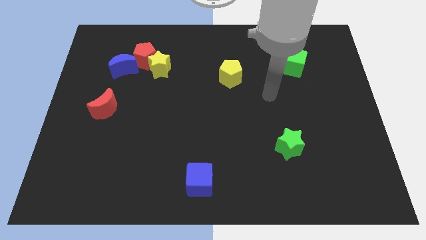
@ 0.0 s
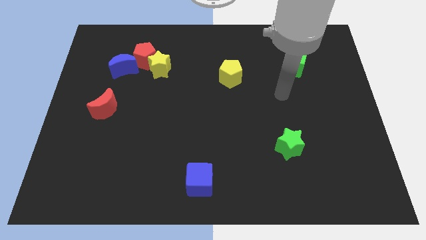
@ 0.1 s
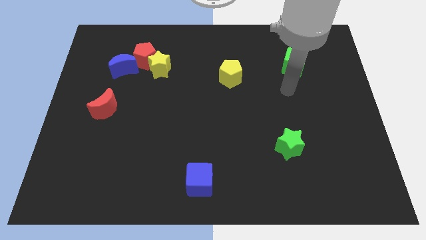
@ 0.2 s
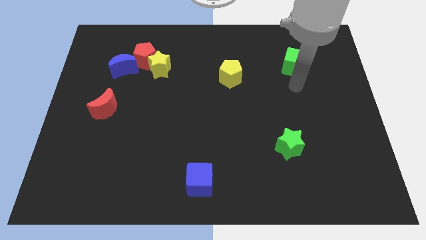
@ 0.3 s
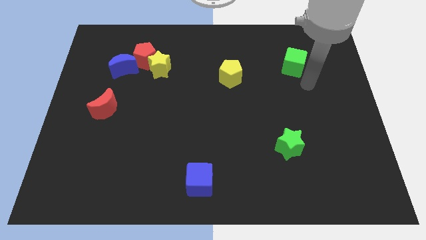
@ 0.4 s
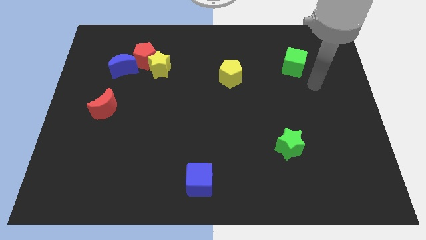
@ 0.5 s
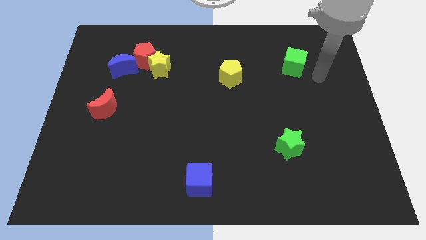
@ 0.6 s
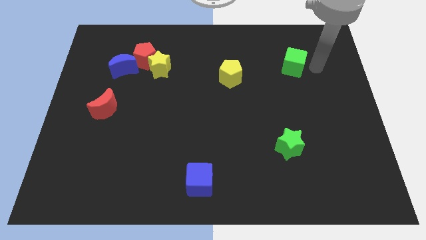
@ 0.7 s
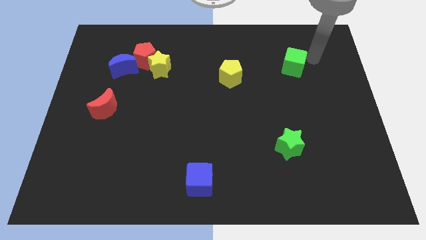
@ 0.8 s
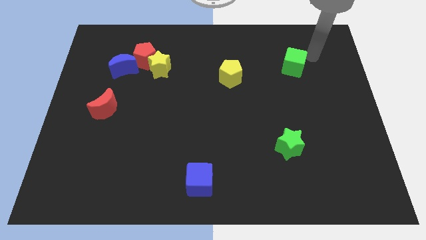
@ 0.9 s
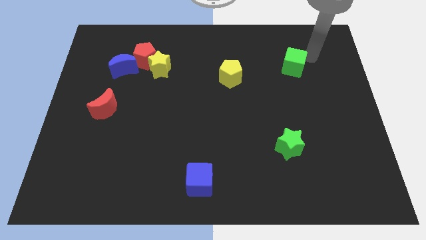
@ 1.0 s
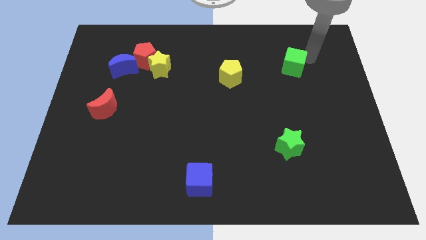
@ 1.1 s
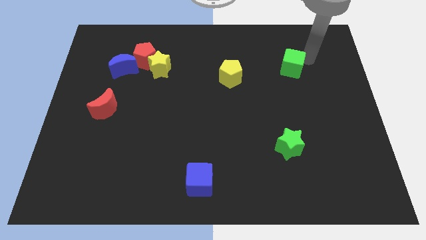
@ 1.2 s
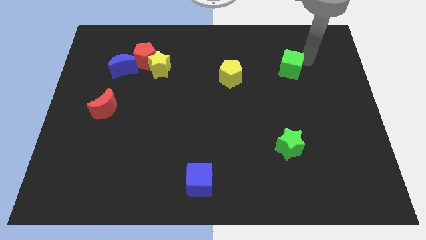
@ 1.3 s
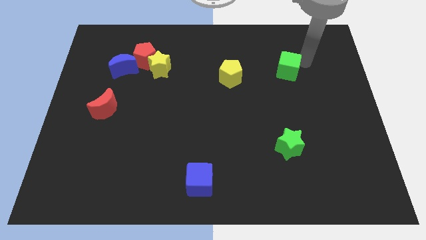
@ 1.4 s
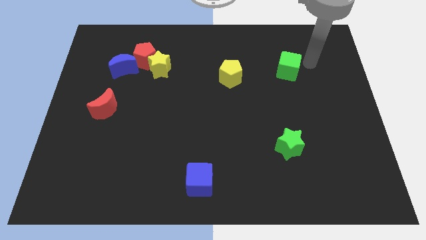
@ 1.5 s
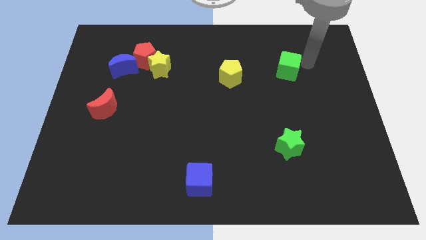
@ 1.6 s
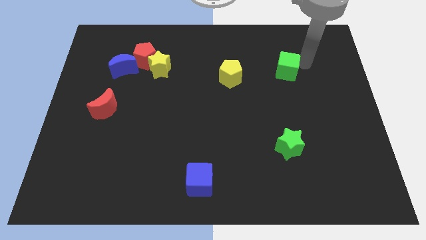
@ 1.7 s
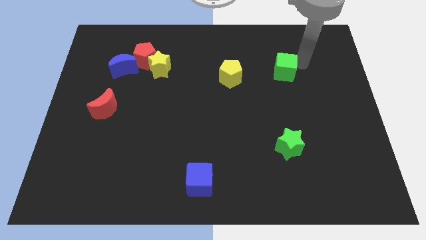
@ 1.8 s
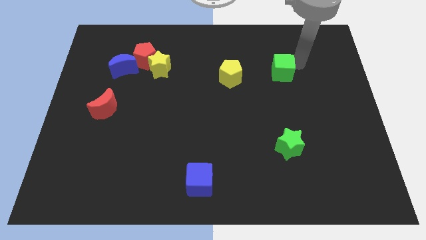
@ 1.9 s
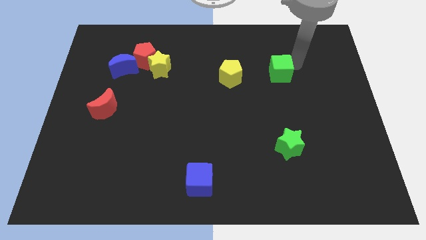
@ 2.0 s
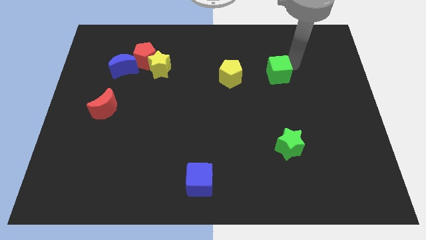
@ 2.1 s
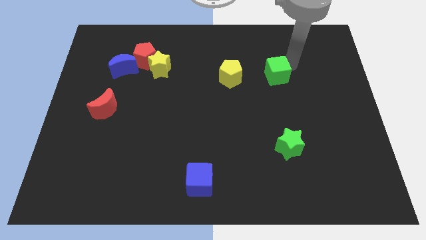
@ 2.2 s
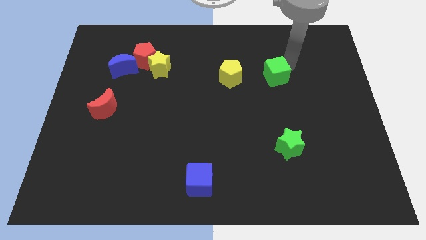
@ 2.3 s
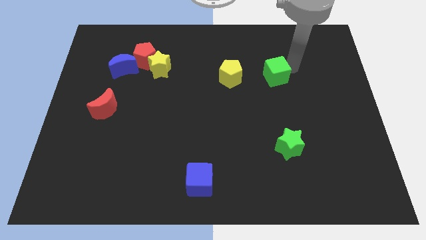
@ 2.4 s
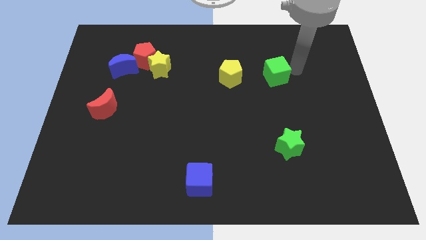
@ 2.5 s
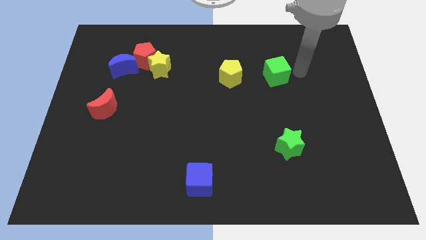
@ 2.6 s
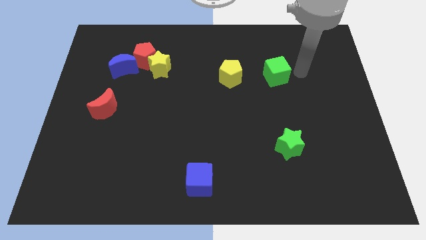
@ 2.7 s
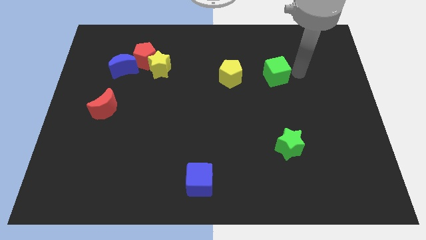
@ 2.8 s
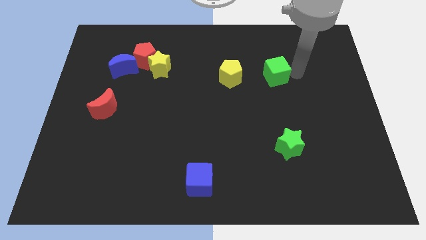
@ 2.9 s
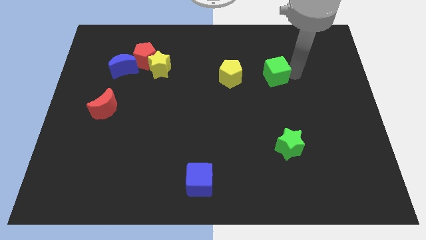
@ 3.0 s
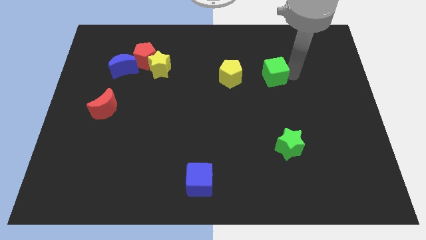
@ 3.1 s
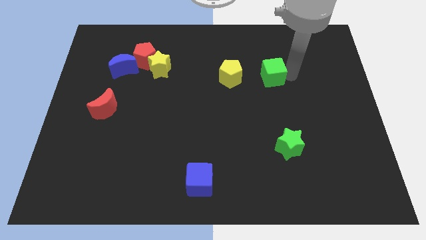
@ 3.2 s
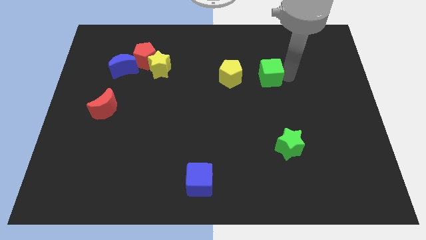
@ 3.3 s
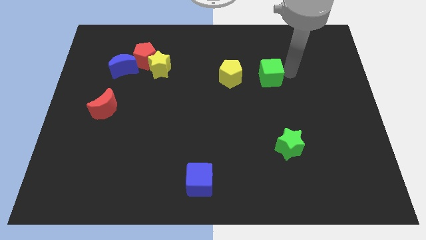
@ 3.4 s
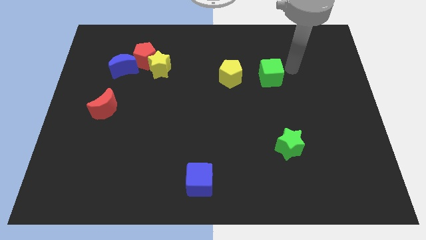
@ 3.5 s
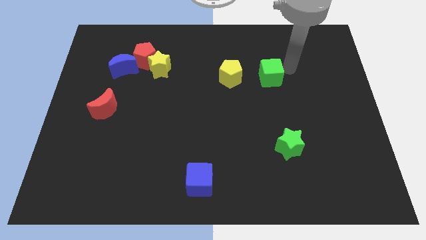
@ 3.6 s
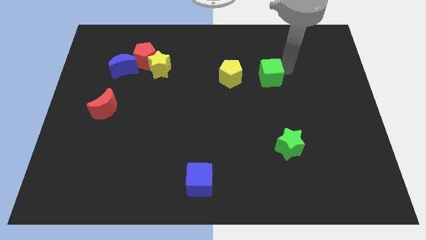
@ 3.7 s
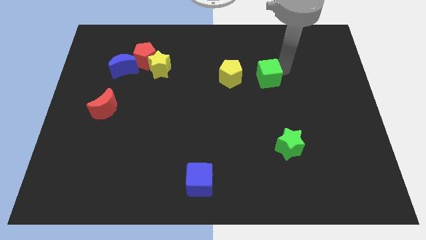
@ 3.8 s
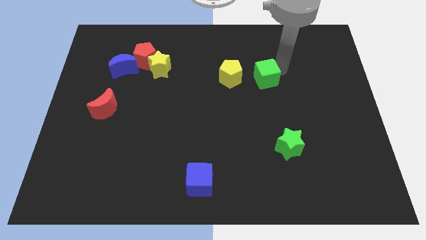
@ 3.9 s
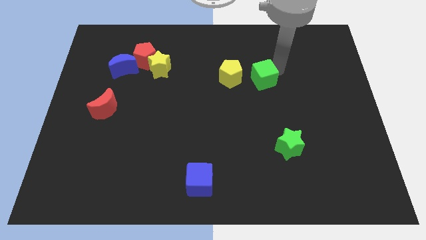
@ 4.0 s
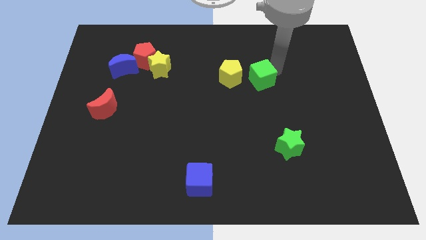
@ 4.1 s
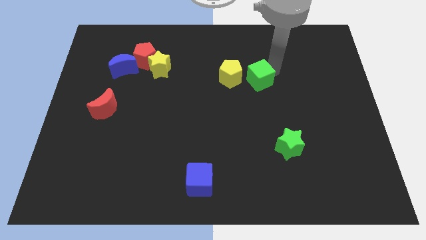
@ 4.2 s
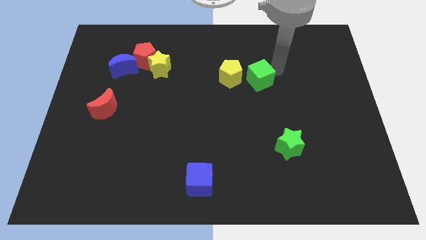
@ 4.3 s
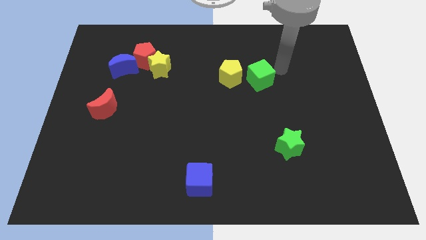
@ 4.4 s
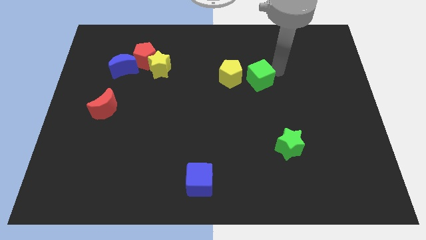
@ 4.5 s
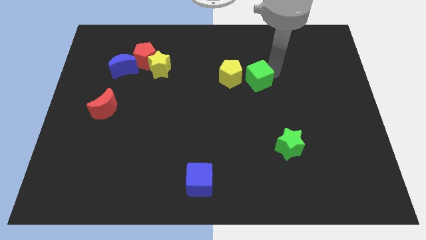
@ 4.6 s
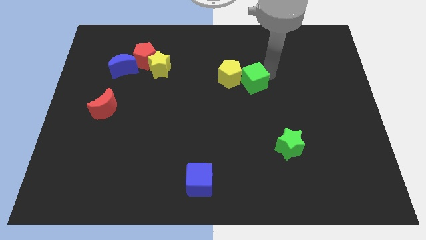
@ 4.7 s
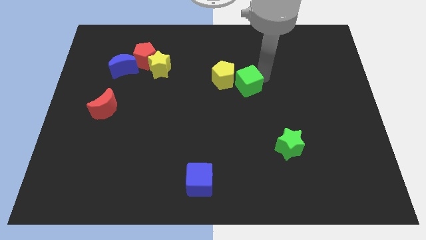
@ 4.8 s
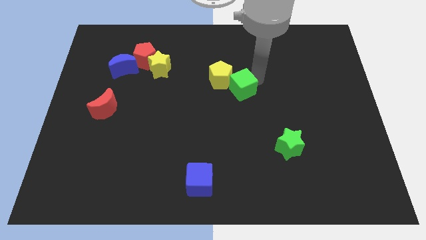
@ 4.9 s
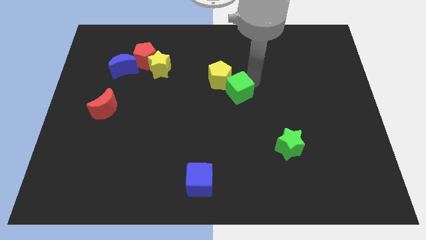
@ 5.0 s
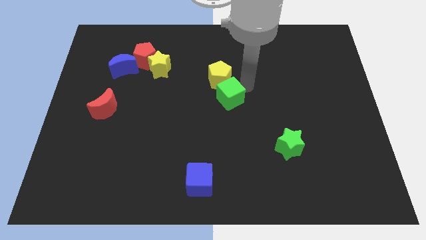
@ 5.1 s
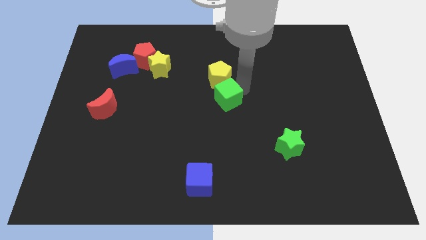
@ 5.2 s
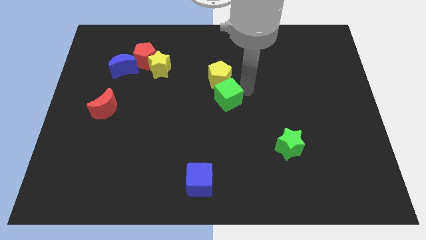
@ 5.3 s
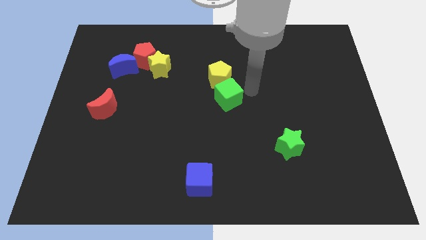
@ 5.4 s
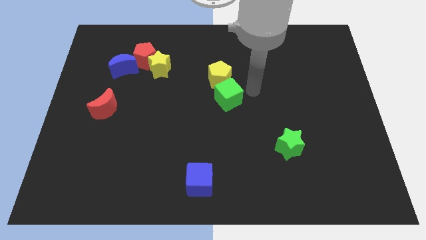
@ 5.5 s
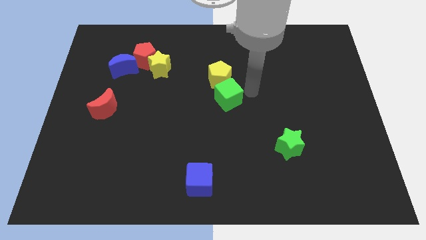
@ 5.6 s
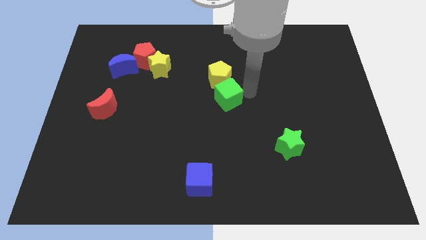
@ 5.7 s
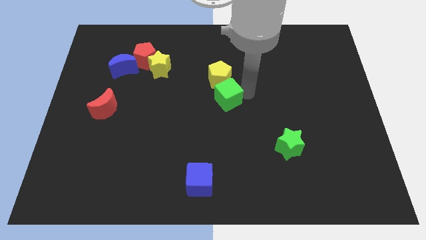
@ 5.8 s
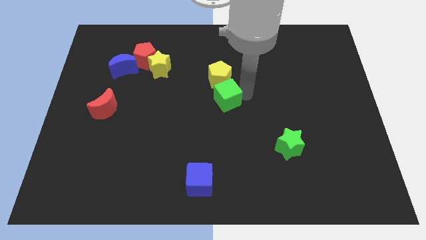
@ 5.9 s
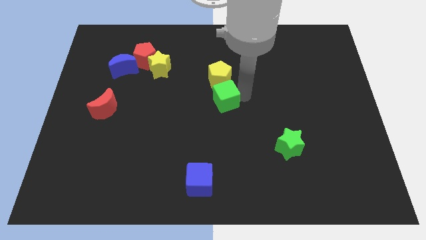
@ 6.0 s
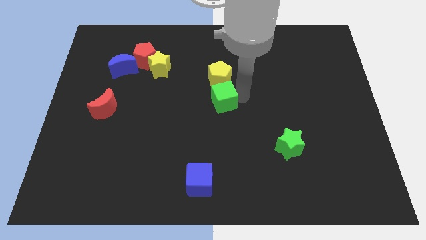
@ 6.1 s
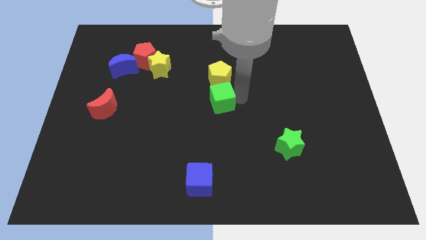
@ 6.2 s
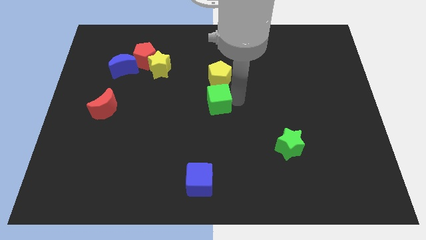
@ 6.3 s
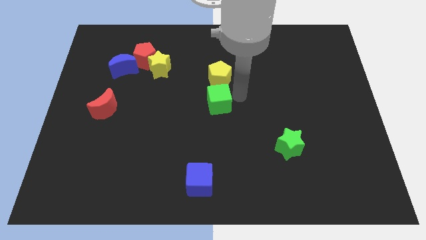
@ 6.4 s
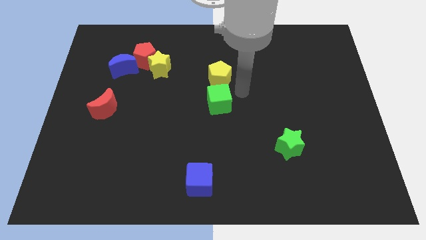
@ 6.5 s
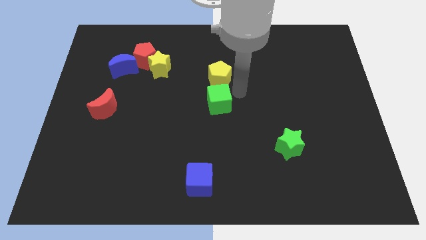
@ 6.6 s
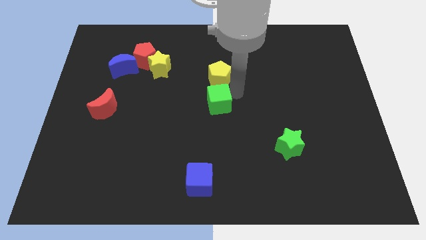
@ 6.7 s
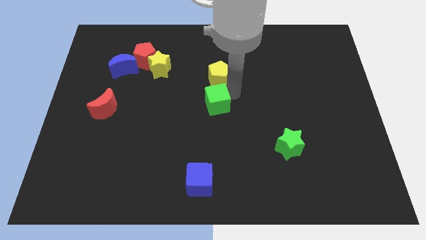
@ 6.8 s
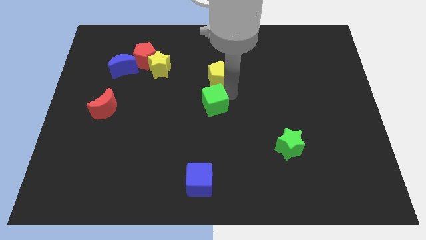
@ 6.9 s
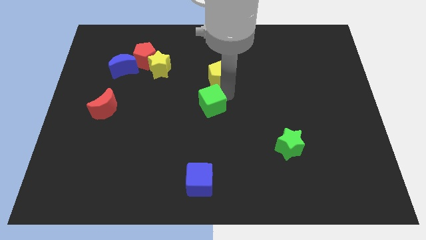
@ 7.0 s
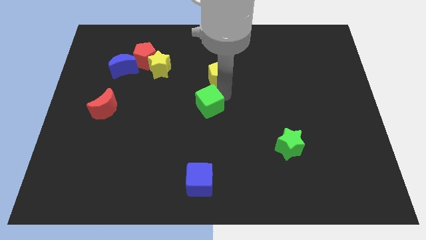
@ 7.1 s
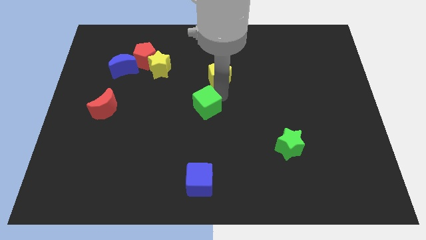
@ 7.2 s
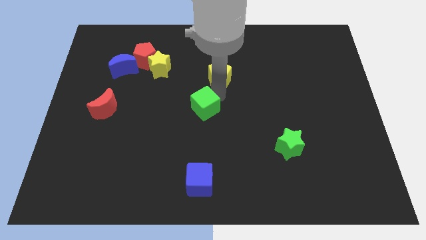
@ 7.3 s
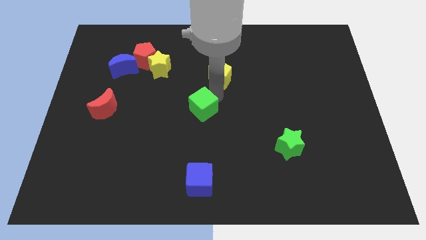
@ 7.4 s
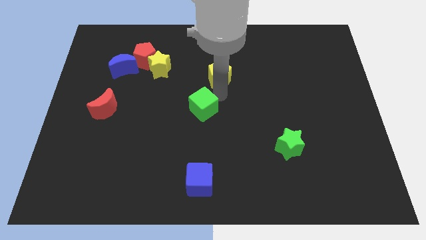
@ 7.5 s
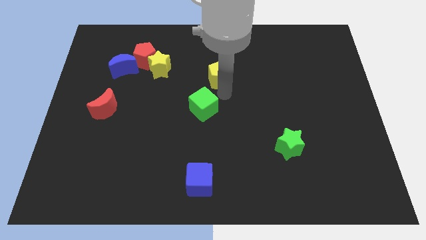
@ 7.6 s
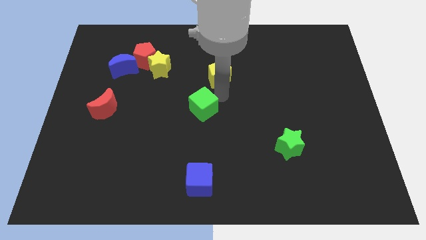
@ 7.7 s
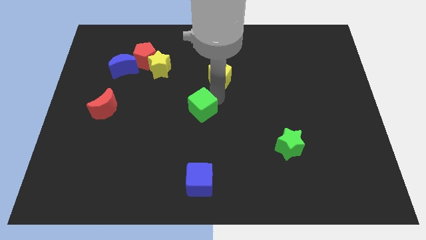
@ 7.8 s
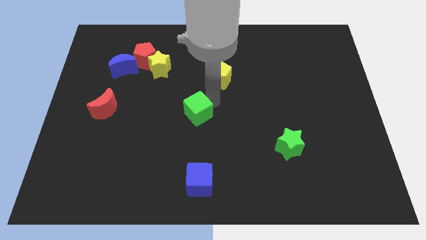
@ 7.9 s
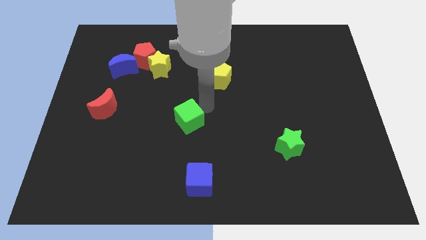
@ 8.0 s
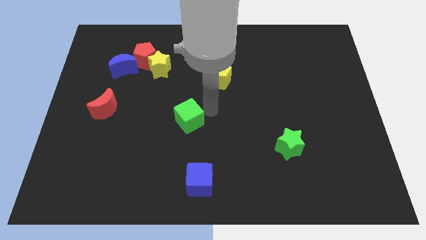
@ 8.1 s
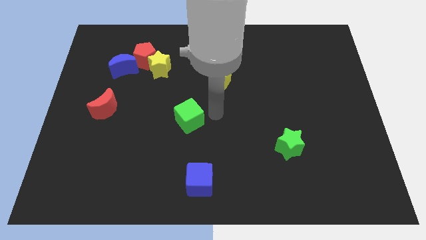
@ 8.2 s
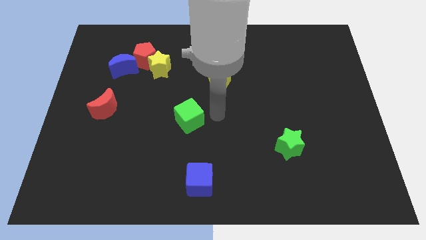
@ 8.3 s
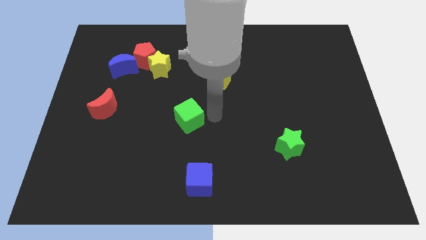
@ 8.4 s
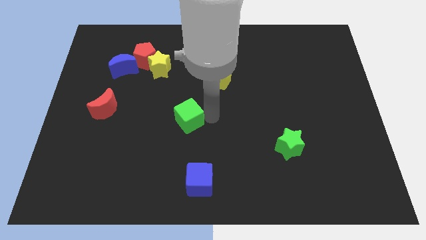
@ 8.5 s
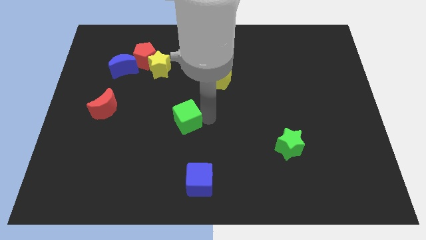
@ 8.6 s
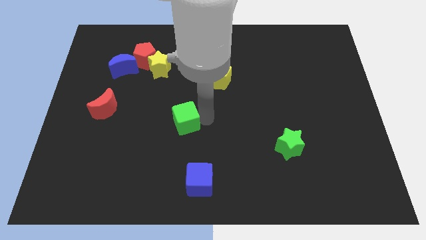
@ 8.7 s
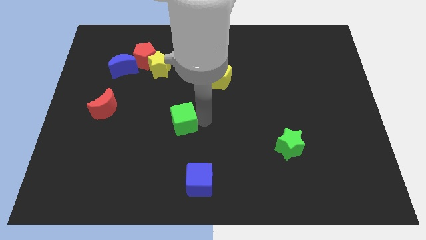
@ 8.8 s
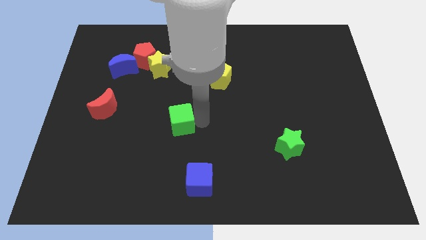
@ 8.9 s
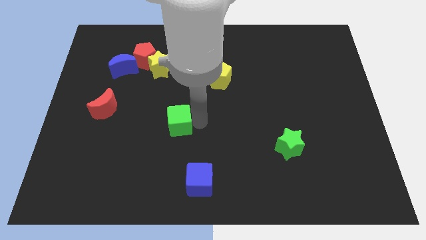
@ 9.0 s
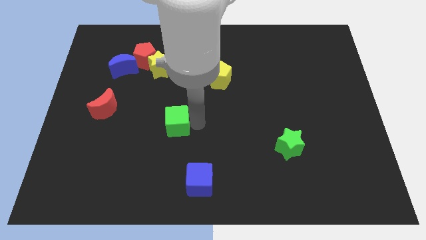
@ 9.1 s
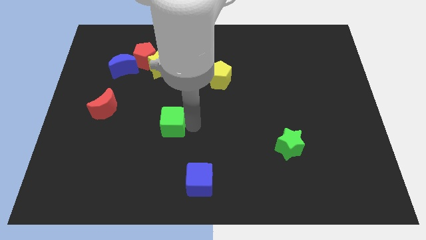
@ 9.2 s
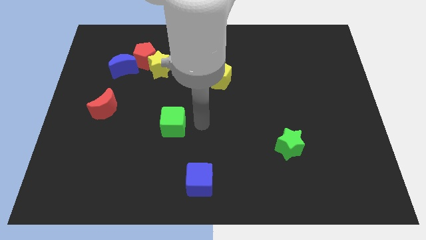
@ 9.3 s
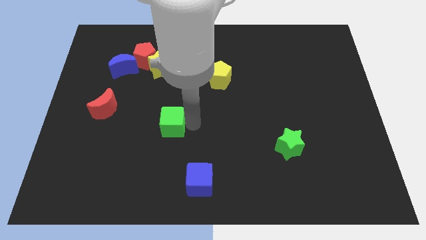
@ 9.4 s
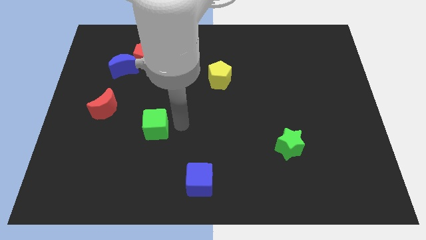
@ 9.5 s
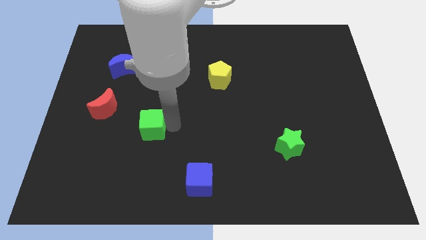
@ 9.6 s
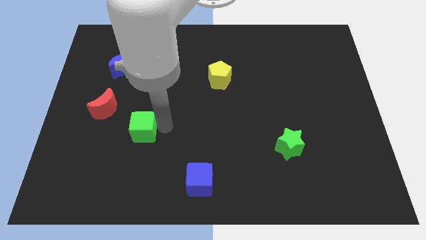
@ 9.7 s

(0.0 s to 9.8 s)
put the green cube diagonally down and to the right of the red moon
